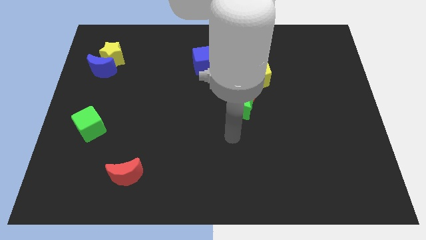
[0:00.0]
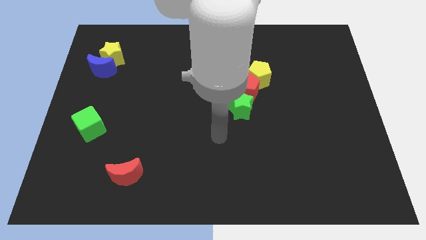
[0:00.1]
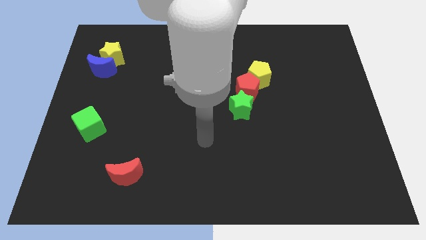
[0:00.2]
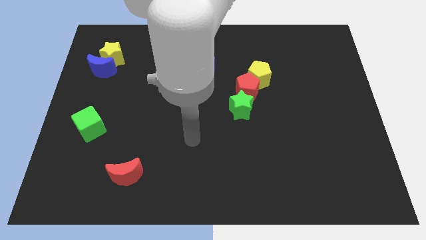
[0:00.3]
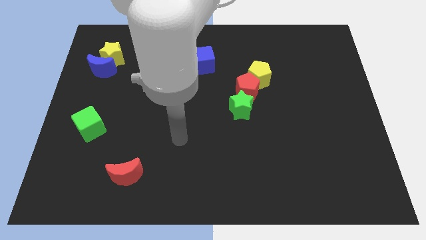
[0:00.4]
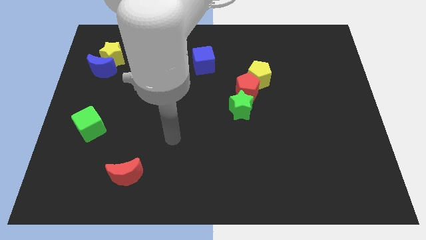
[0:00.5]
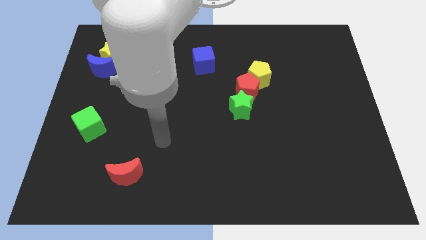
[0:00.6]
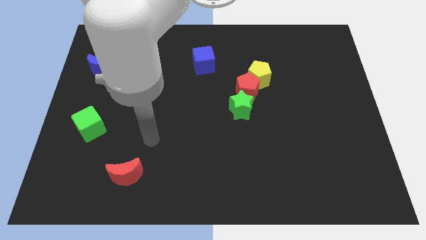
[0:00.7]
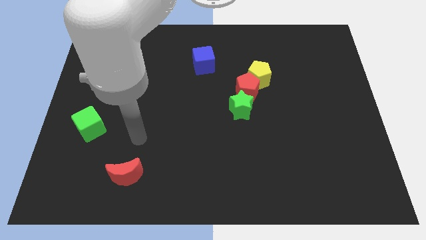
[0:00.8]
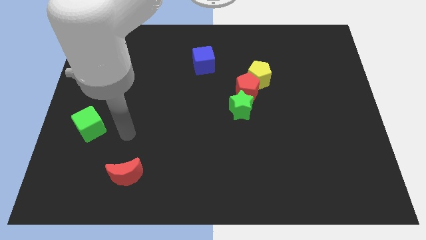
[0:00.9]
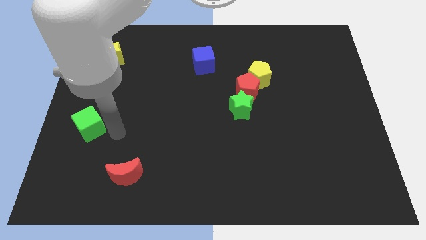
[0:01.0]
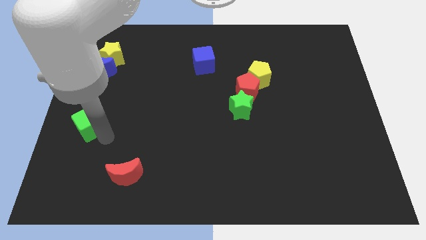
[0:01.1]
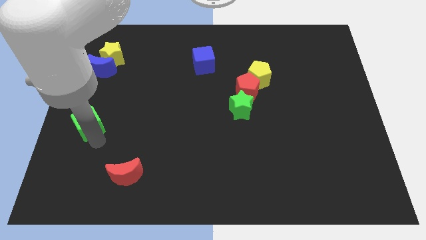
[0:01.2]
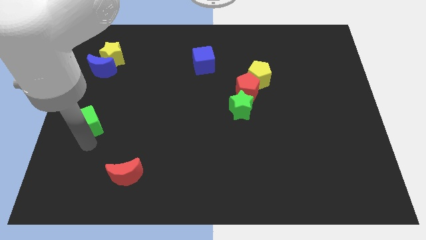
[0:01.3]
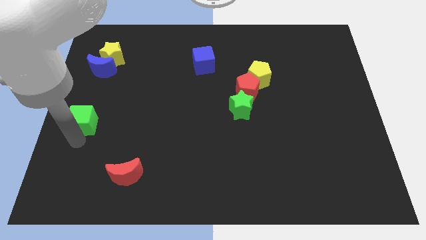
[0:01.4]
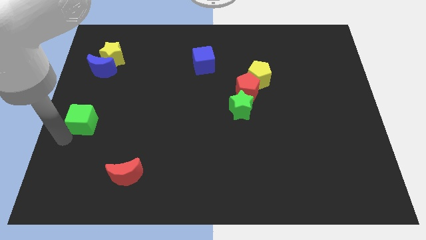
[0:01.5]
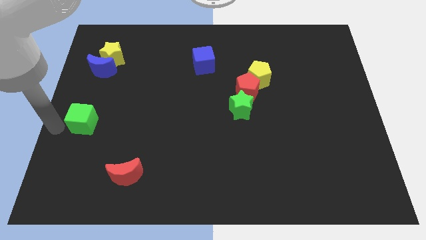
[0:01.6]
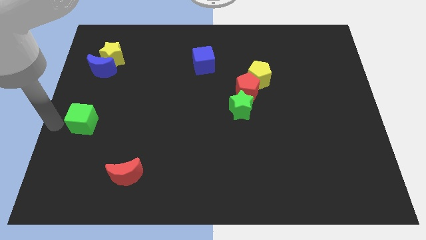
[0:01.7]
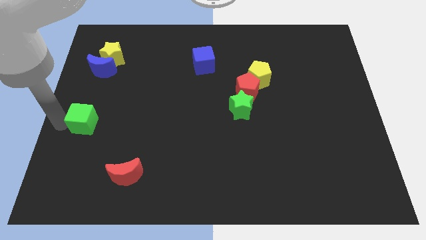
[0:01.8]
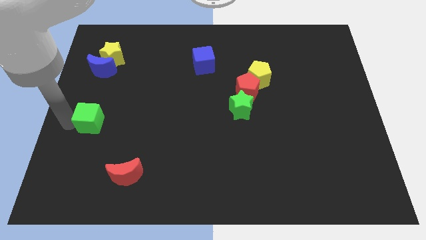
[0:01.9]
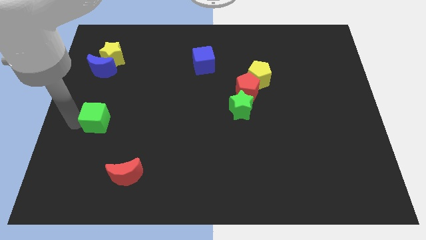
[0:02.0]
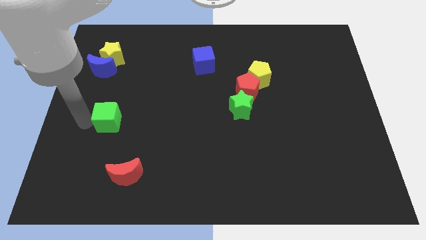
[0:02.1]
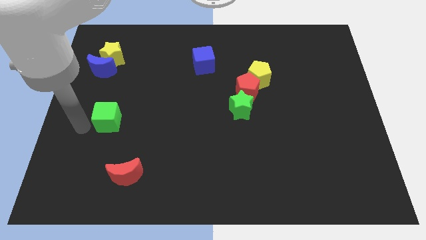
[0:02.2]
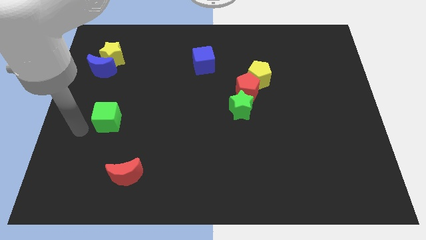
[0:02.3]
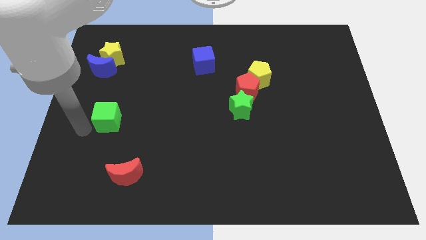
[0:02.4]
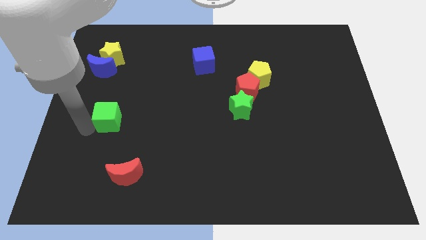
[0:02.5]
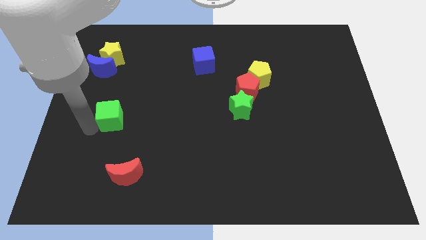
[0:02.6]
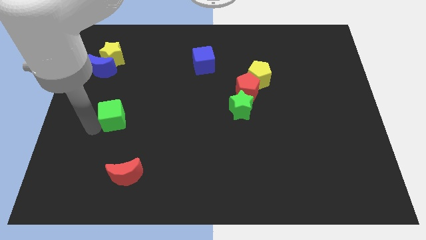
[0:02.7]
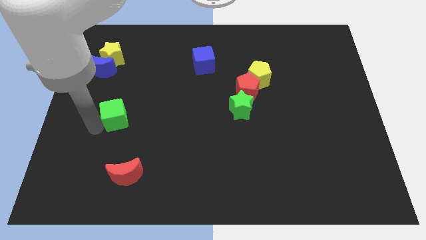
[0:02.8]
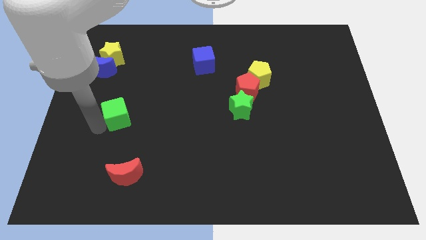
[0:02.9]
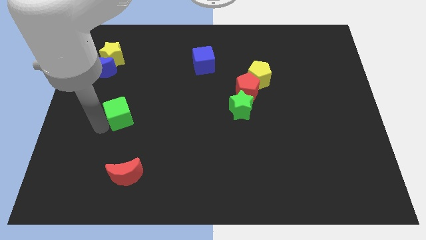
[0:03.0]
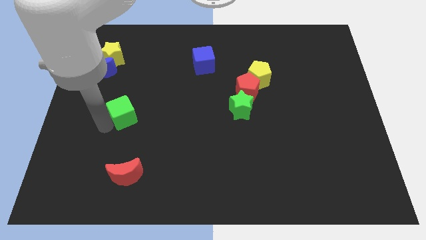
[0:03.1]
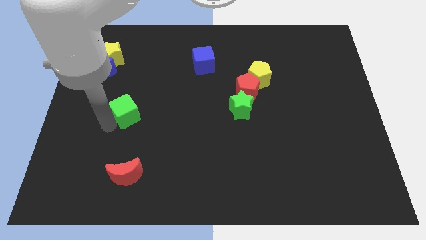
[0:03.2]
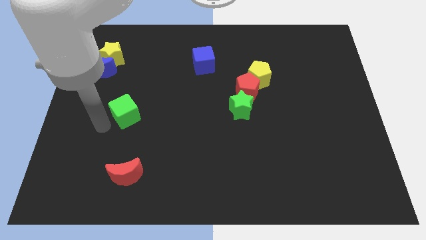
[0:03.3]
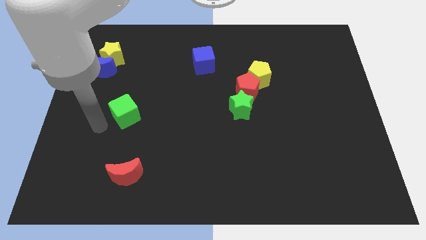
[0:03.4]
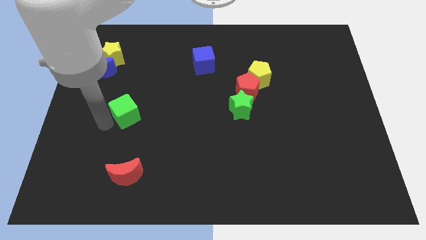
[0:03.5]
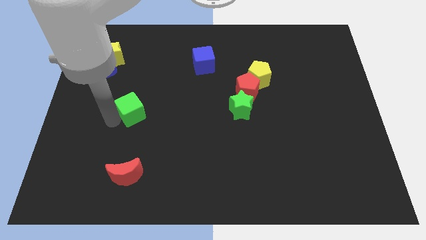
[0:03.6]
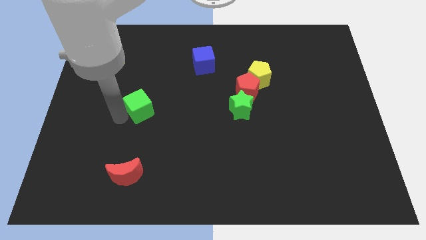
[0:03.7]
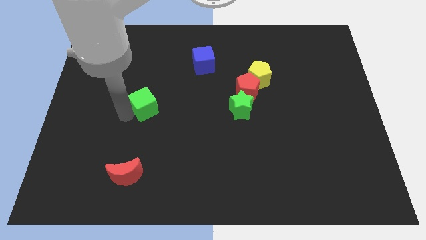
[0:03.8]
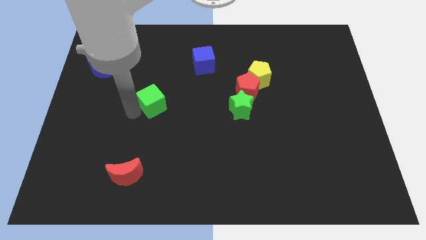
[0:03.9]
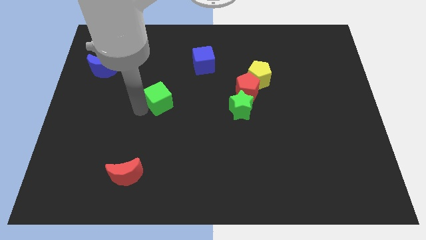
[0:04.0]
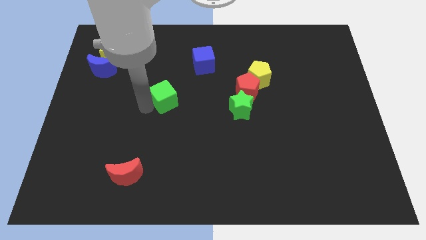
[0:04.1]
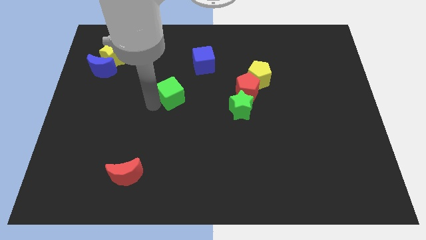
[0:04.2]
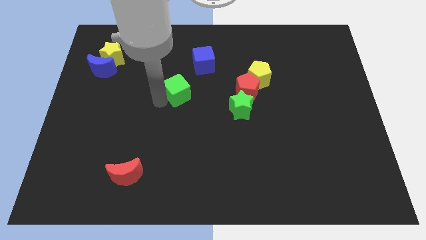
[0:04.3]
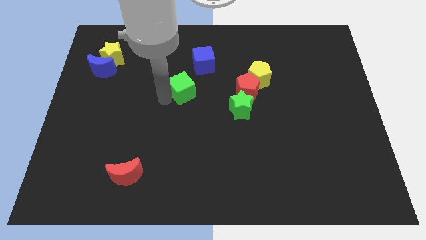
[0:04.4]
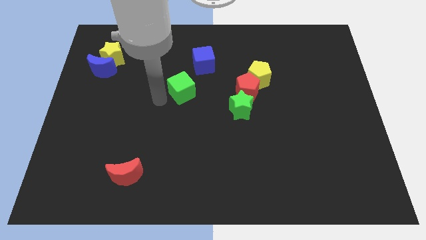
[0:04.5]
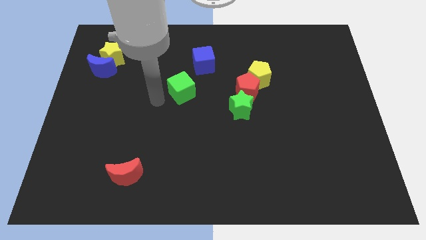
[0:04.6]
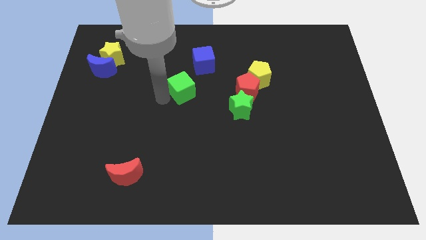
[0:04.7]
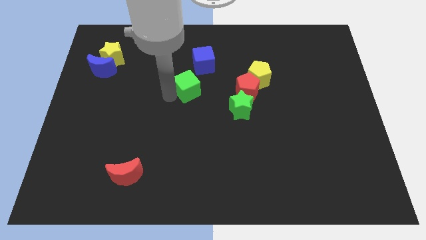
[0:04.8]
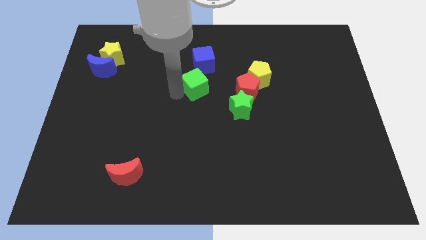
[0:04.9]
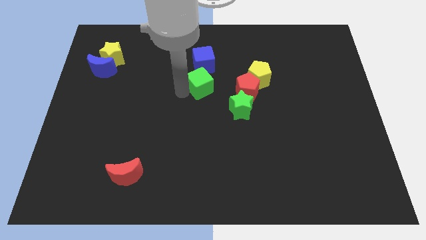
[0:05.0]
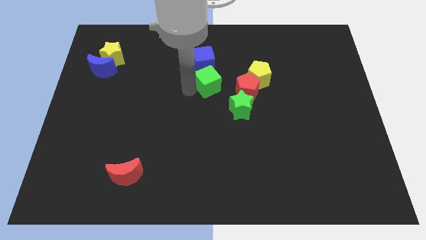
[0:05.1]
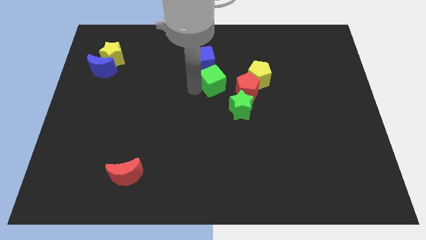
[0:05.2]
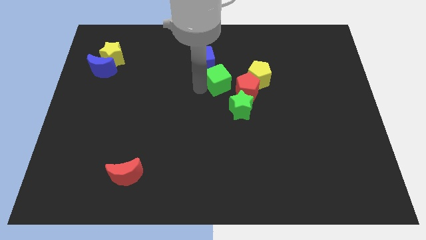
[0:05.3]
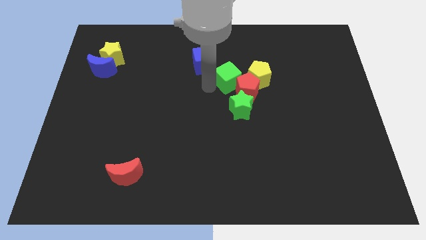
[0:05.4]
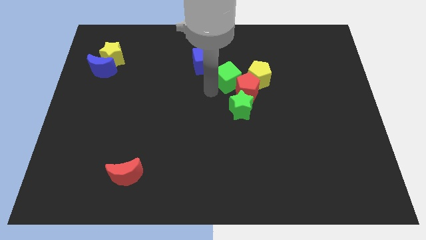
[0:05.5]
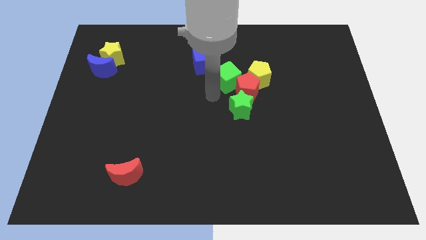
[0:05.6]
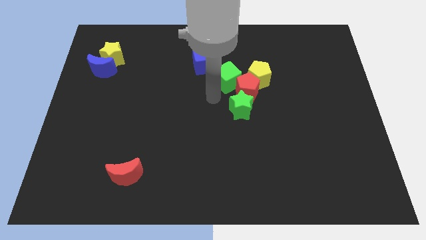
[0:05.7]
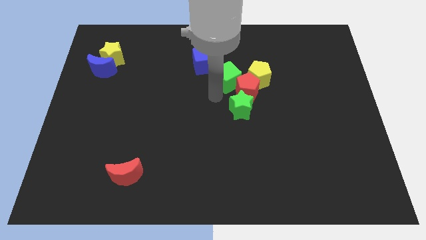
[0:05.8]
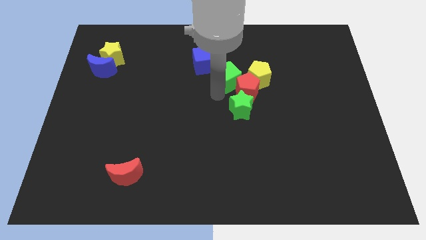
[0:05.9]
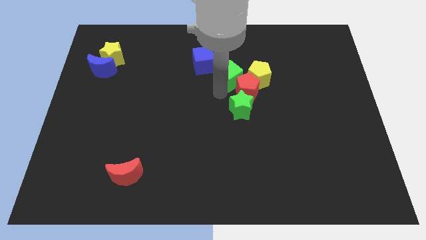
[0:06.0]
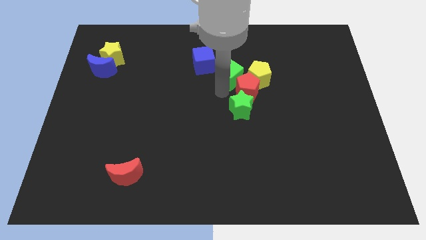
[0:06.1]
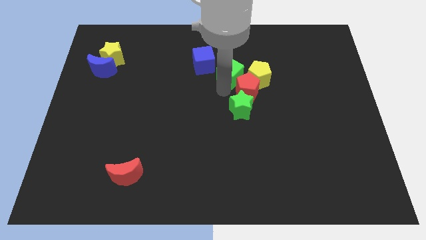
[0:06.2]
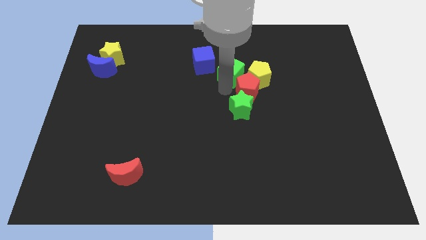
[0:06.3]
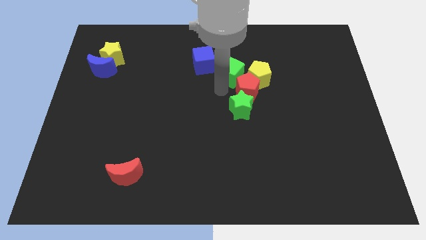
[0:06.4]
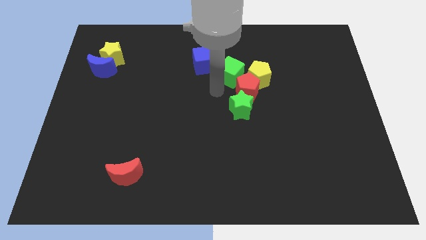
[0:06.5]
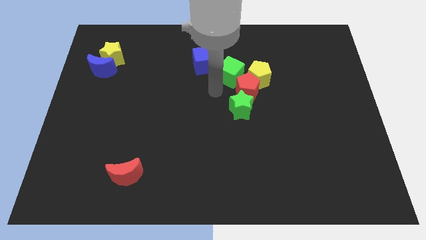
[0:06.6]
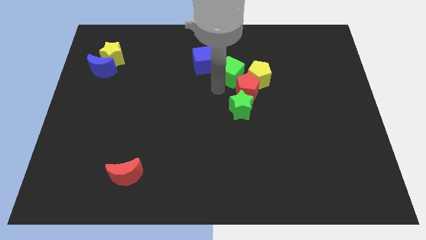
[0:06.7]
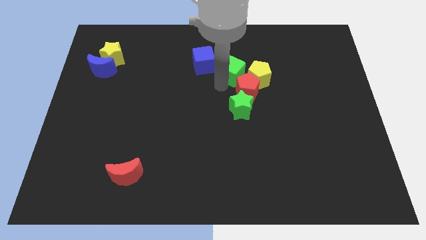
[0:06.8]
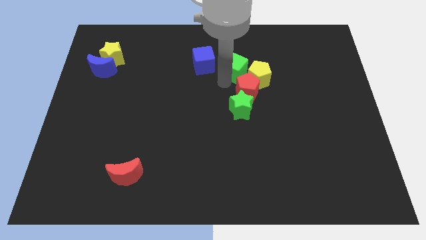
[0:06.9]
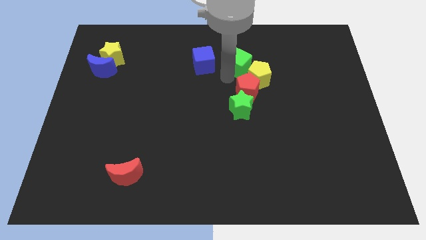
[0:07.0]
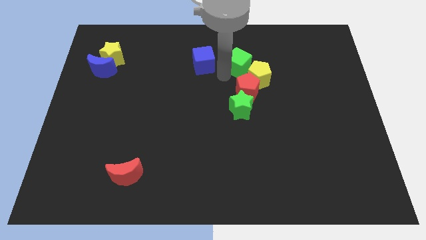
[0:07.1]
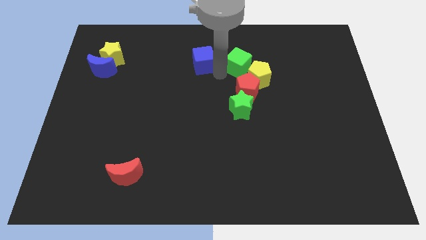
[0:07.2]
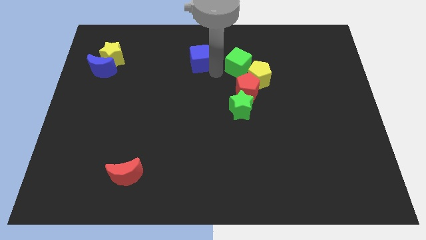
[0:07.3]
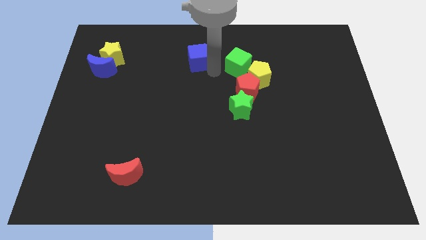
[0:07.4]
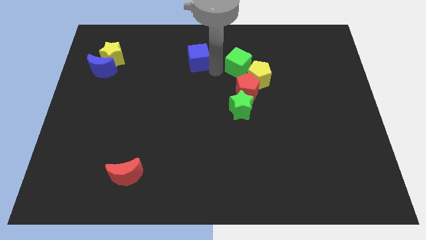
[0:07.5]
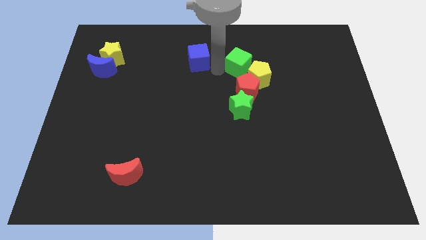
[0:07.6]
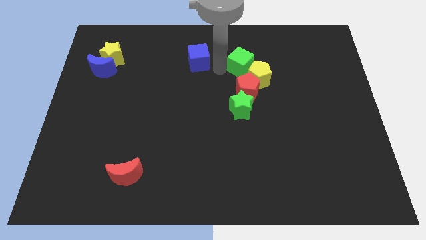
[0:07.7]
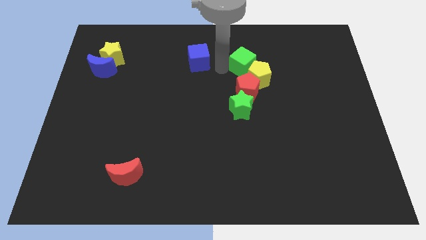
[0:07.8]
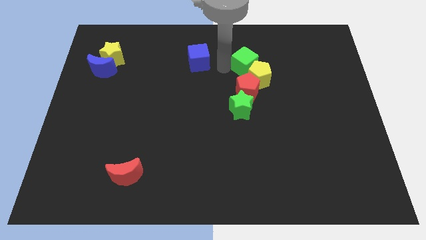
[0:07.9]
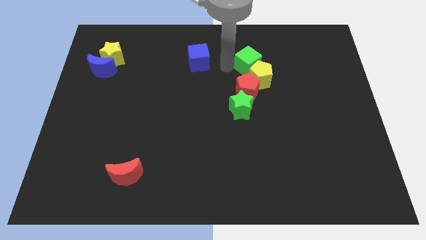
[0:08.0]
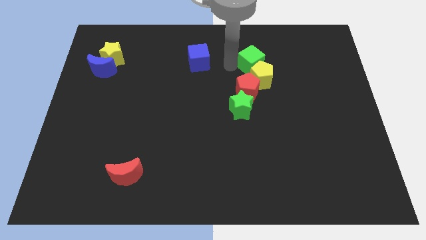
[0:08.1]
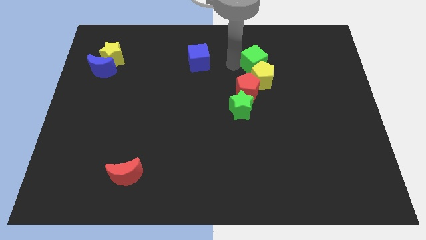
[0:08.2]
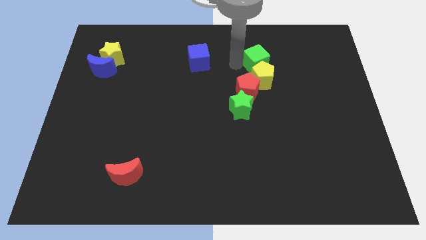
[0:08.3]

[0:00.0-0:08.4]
move the green cube to the top right of the yellow pentagon
